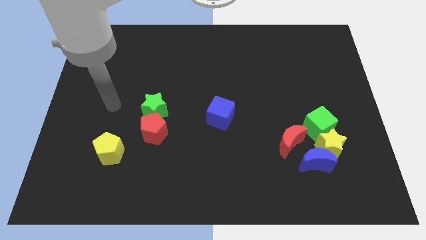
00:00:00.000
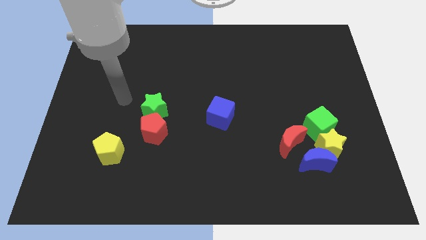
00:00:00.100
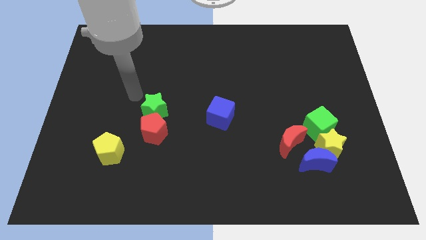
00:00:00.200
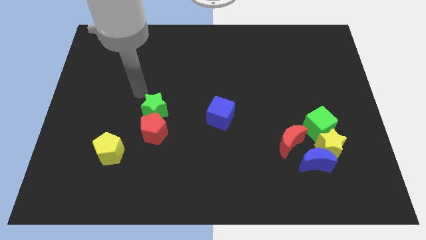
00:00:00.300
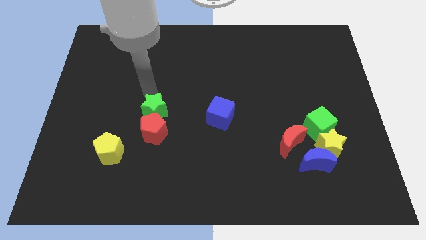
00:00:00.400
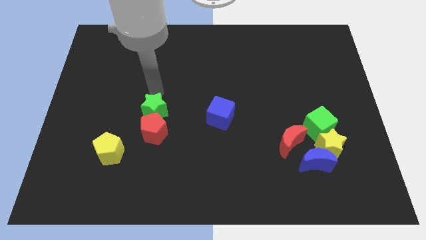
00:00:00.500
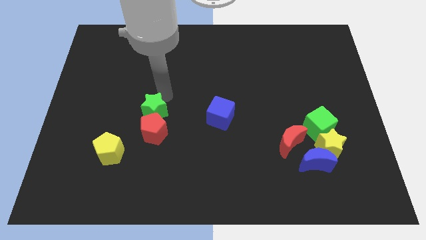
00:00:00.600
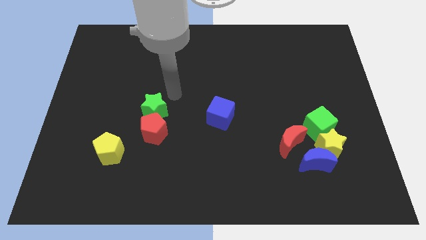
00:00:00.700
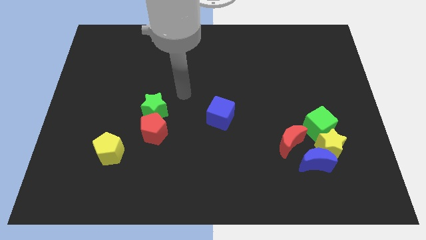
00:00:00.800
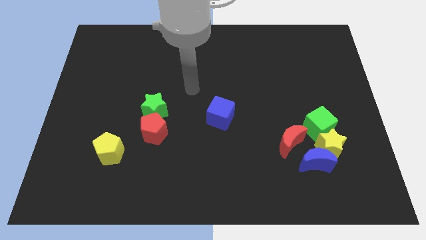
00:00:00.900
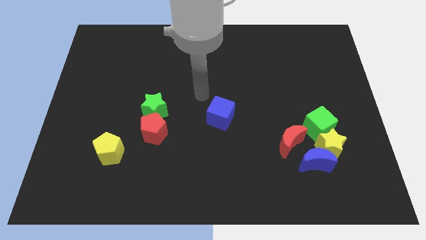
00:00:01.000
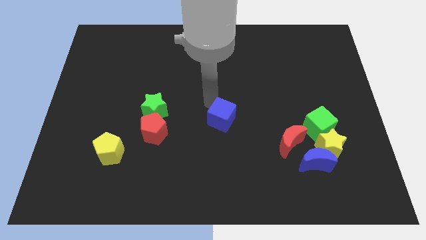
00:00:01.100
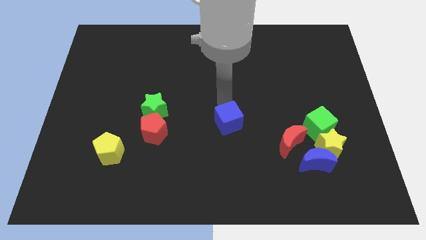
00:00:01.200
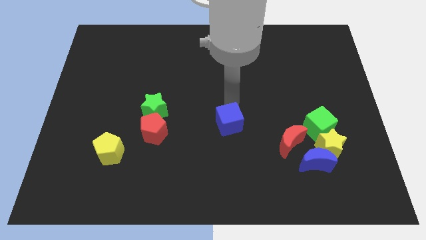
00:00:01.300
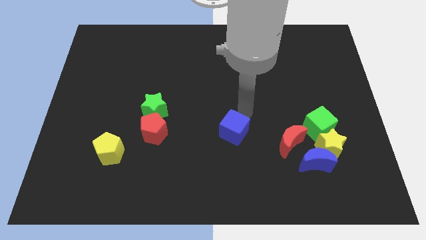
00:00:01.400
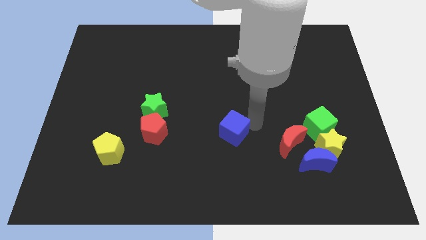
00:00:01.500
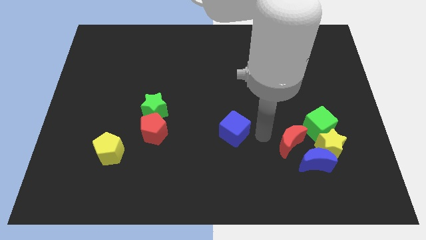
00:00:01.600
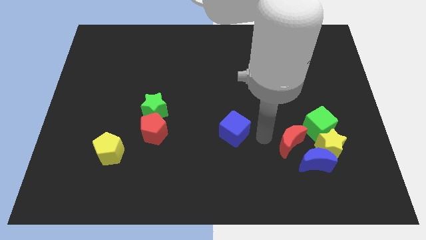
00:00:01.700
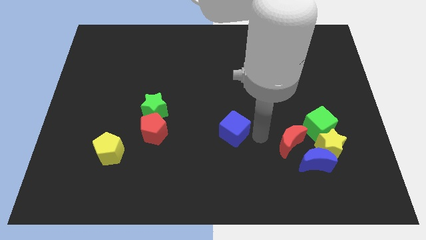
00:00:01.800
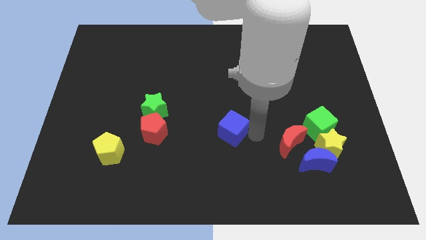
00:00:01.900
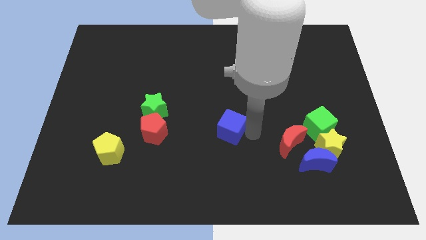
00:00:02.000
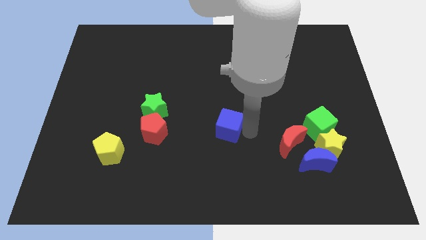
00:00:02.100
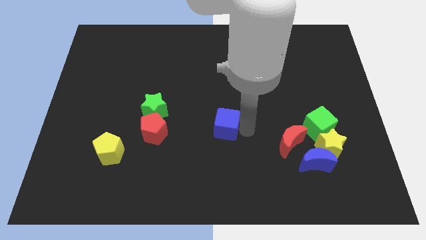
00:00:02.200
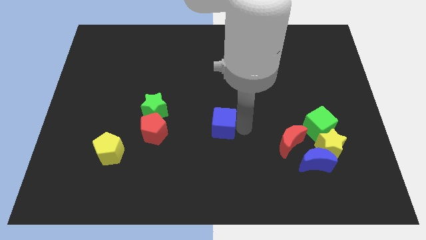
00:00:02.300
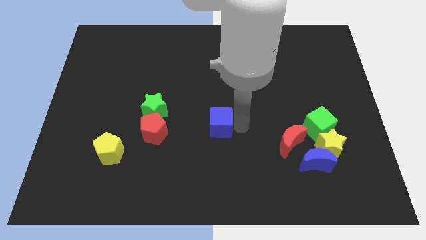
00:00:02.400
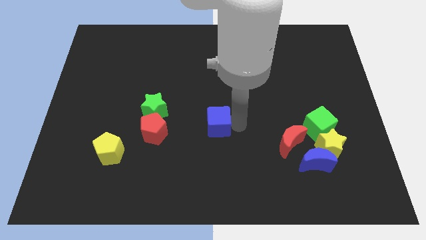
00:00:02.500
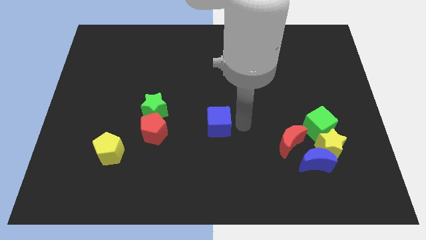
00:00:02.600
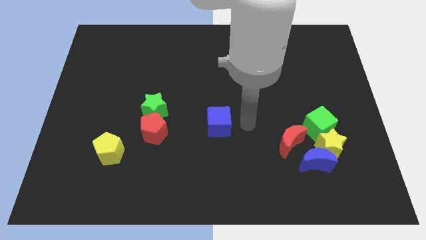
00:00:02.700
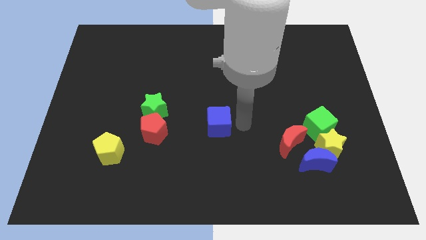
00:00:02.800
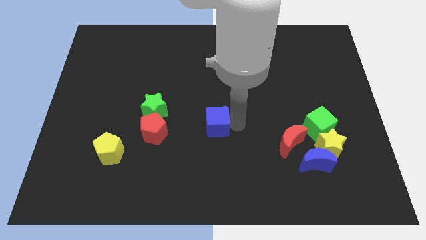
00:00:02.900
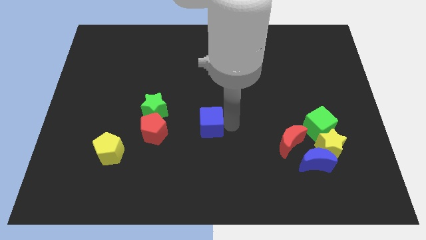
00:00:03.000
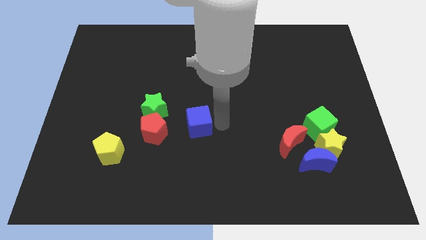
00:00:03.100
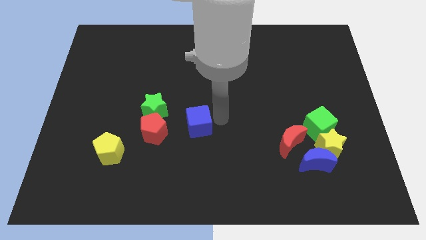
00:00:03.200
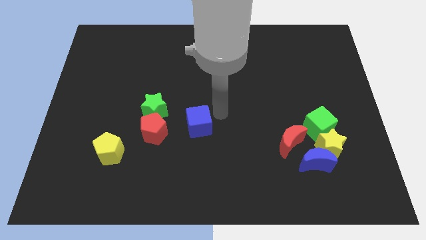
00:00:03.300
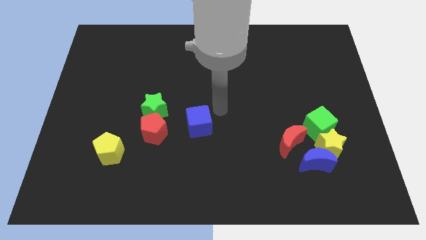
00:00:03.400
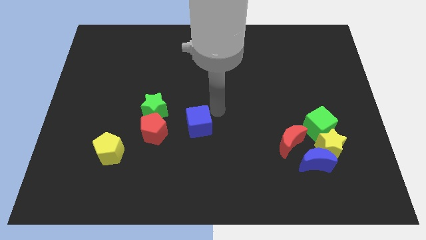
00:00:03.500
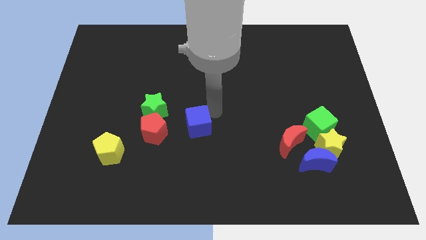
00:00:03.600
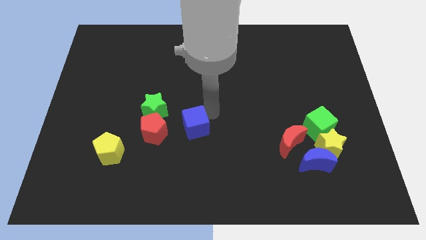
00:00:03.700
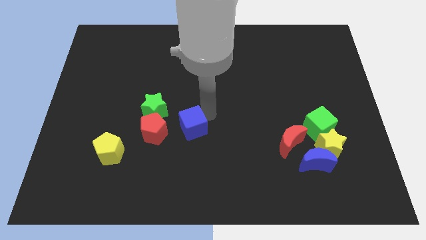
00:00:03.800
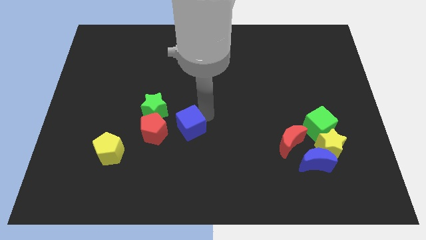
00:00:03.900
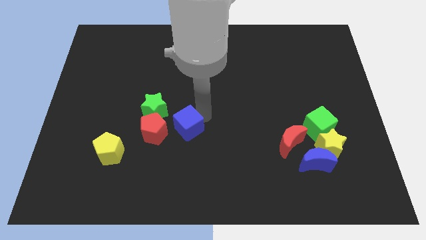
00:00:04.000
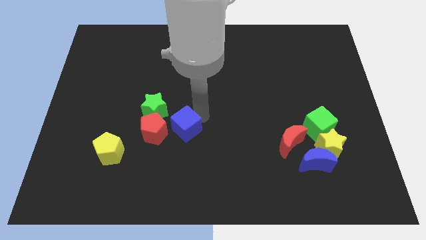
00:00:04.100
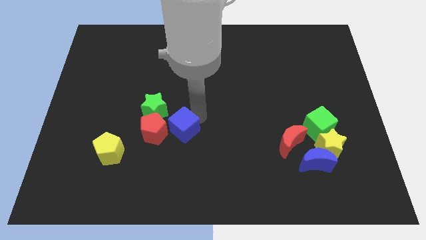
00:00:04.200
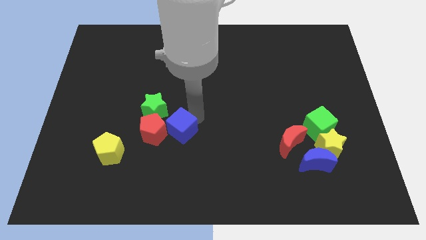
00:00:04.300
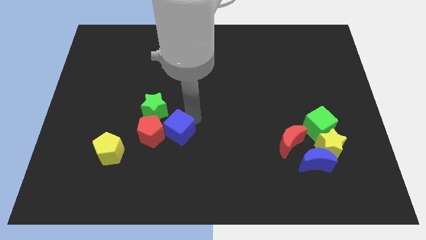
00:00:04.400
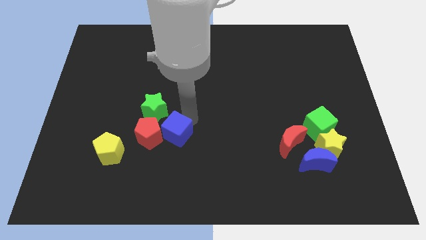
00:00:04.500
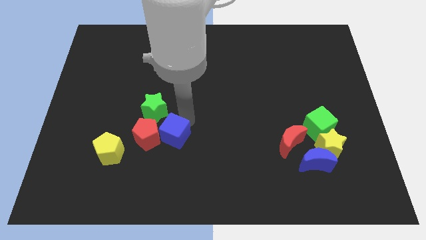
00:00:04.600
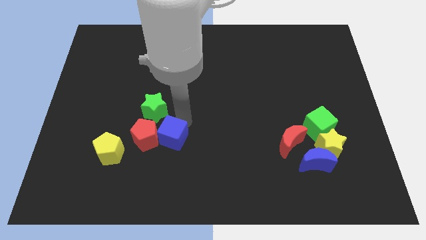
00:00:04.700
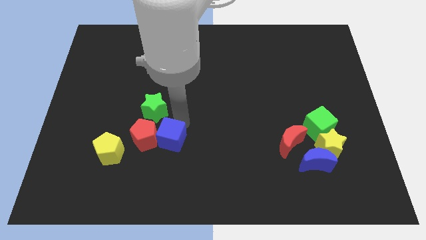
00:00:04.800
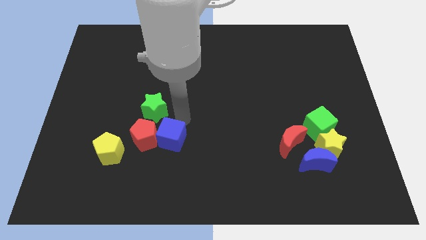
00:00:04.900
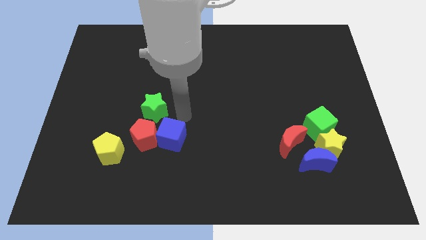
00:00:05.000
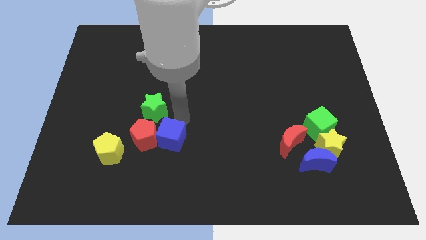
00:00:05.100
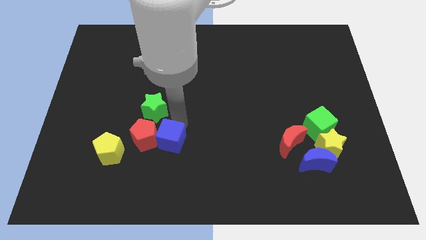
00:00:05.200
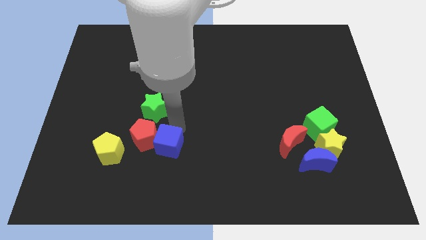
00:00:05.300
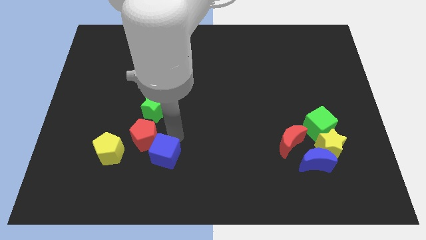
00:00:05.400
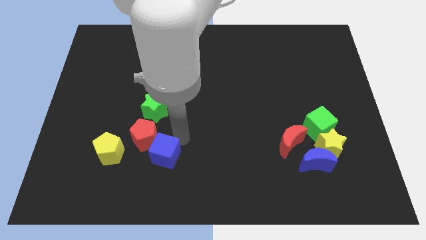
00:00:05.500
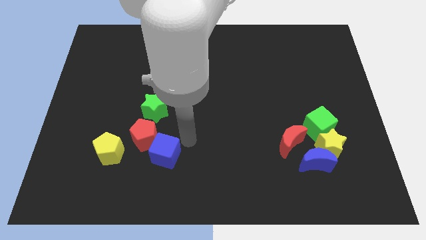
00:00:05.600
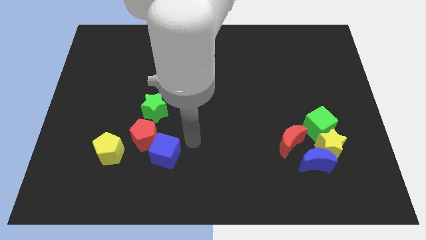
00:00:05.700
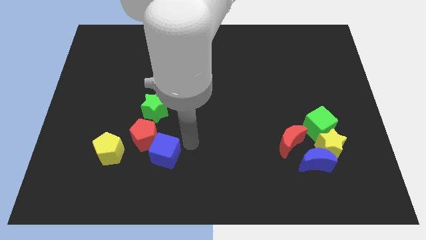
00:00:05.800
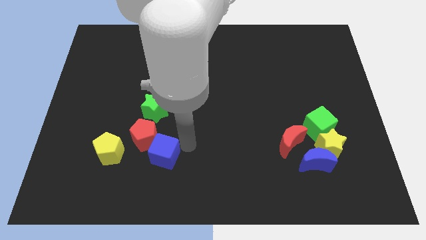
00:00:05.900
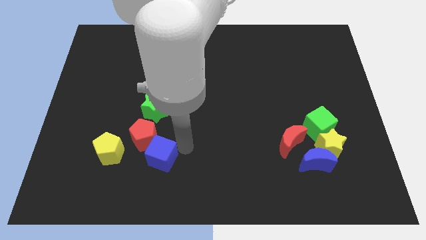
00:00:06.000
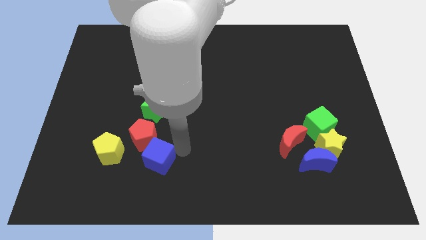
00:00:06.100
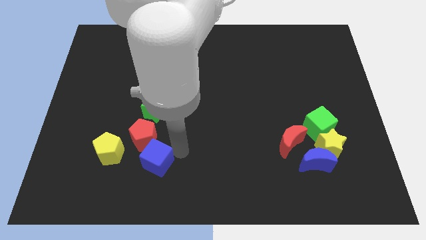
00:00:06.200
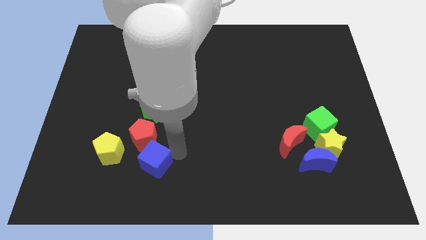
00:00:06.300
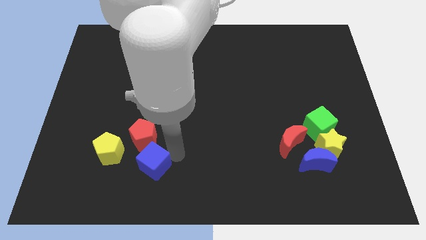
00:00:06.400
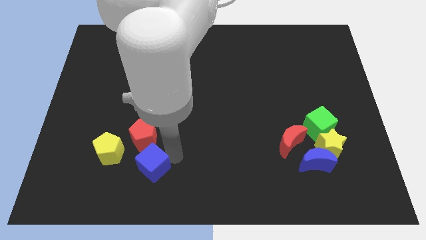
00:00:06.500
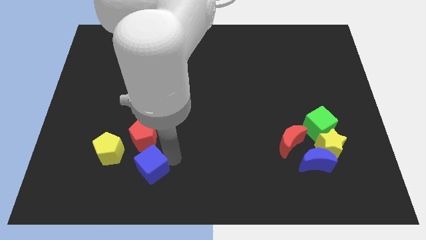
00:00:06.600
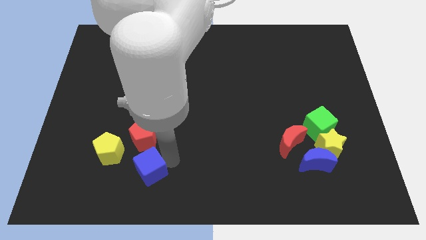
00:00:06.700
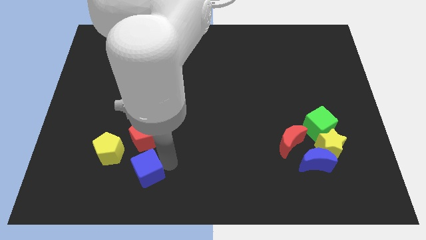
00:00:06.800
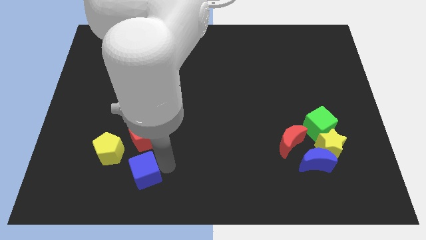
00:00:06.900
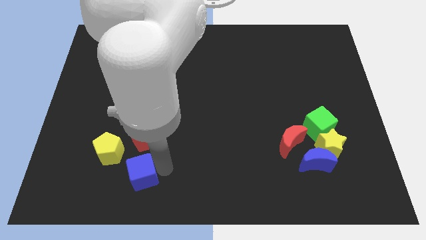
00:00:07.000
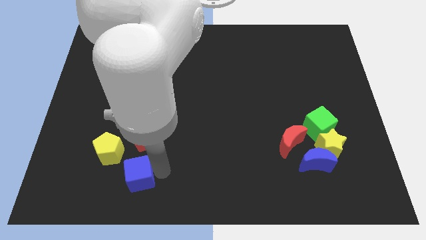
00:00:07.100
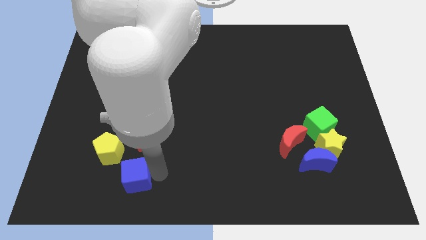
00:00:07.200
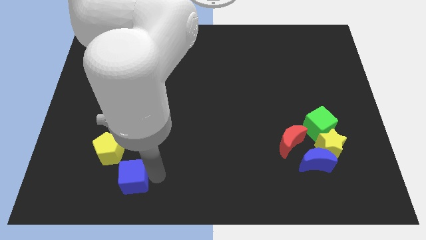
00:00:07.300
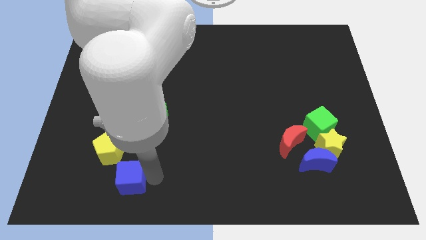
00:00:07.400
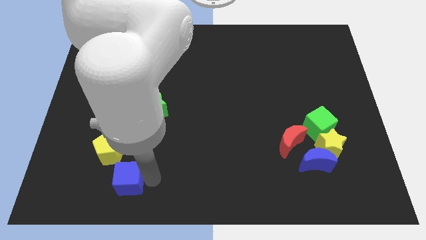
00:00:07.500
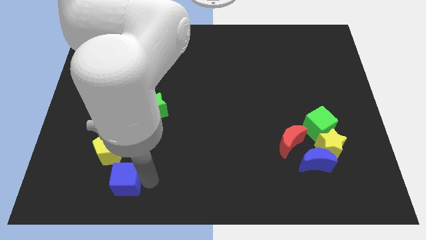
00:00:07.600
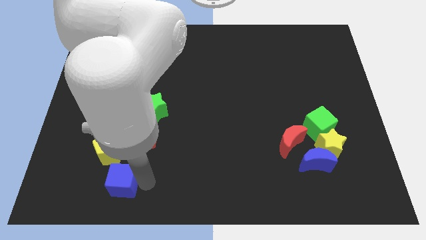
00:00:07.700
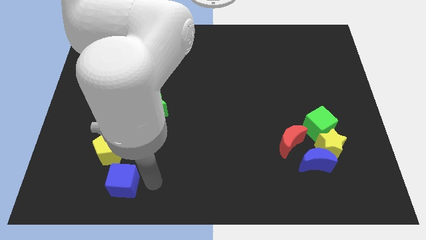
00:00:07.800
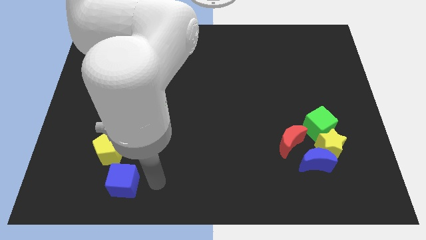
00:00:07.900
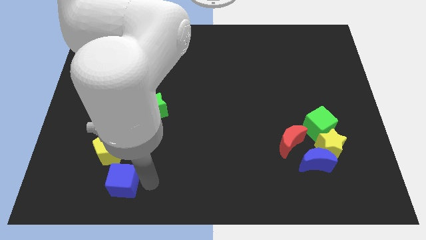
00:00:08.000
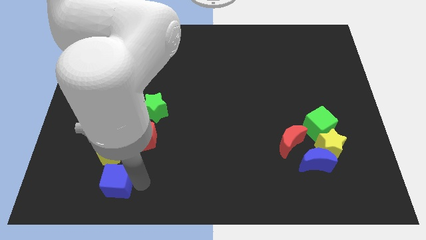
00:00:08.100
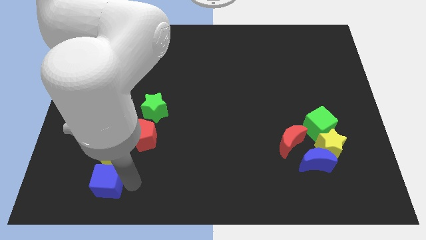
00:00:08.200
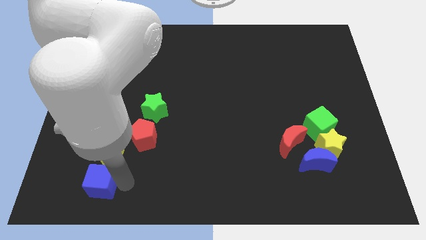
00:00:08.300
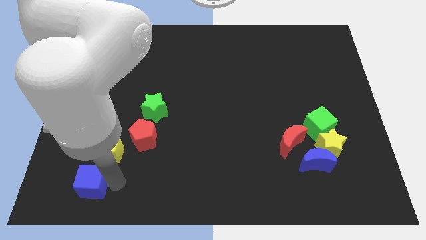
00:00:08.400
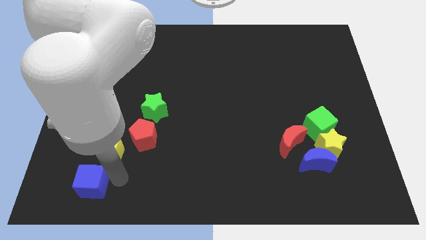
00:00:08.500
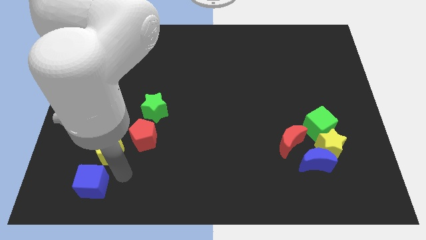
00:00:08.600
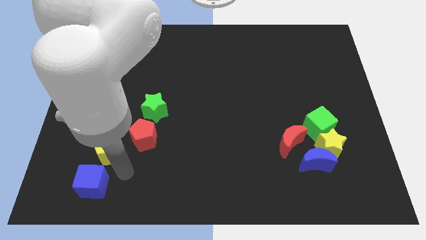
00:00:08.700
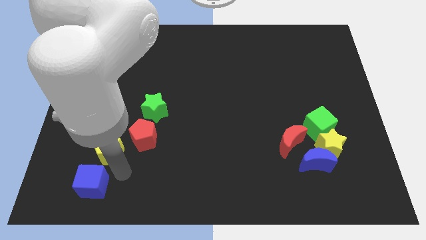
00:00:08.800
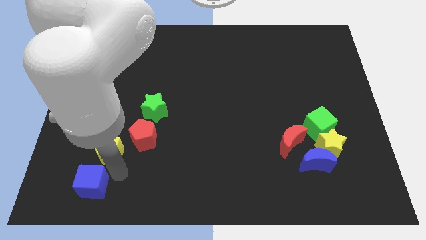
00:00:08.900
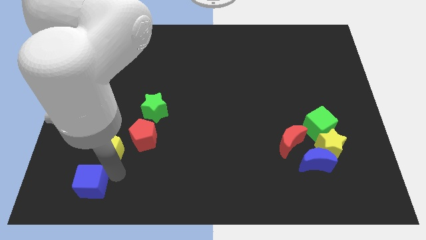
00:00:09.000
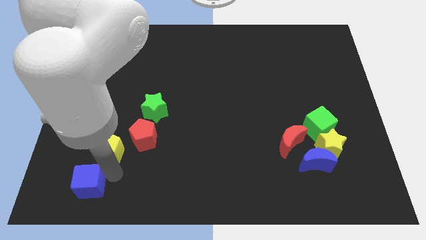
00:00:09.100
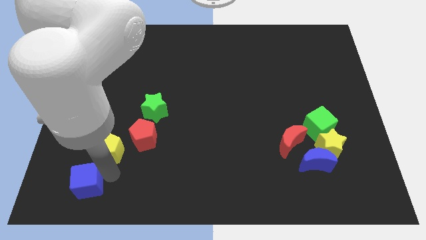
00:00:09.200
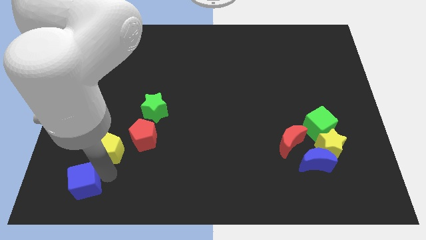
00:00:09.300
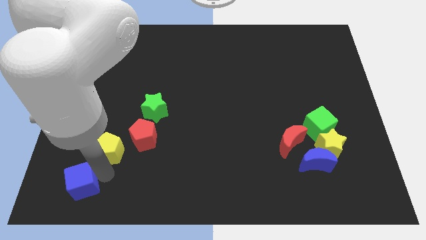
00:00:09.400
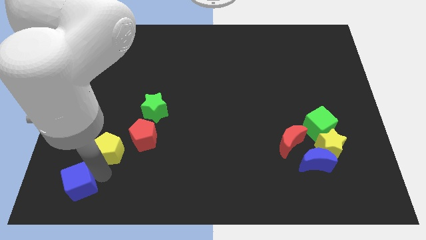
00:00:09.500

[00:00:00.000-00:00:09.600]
push the blue cube to the bottom left corner
